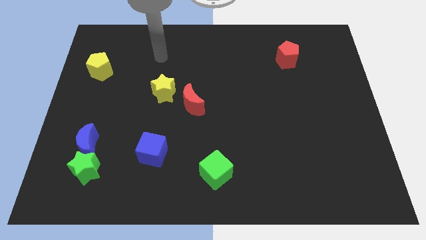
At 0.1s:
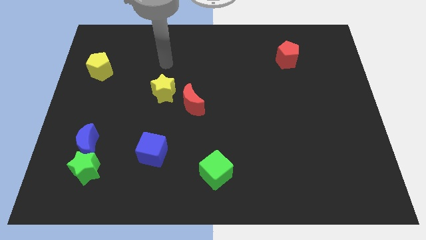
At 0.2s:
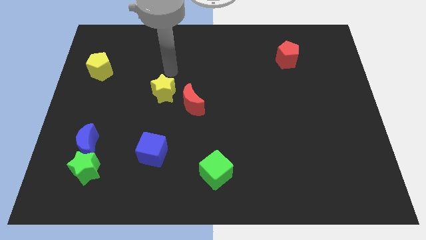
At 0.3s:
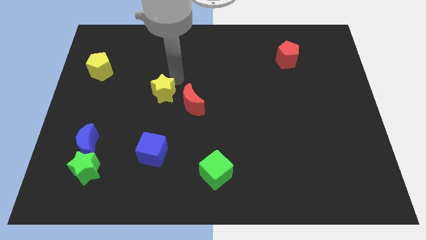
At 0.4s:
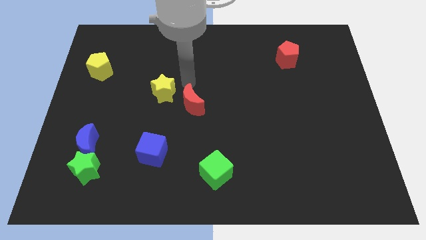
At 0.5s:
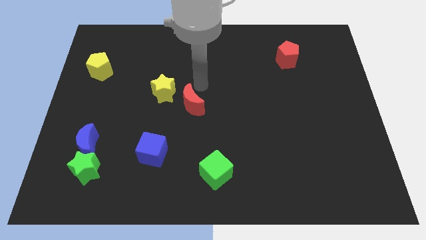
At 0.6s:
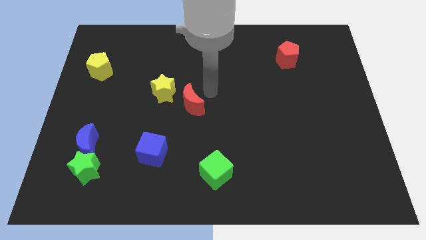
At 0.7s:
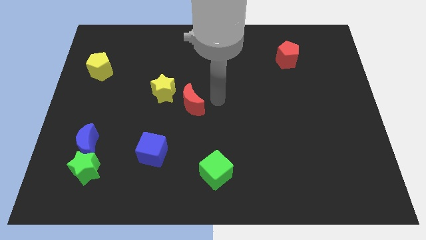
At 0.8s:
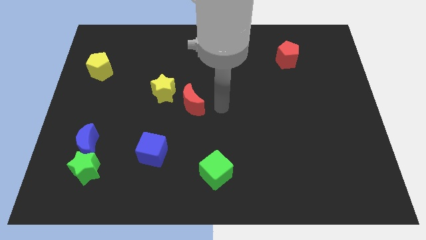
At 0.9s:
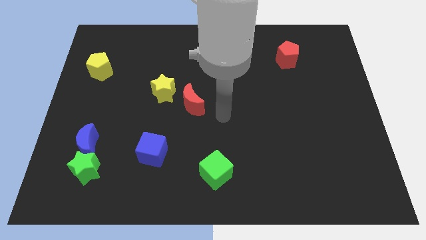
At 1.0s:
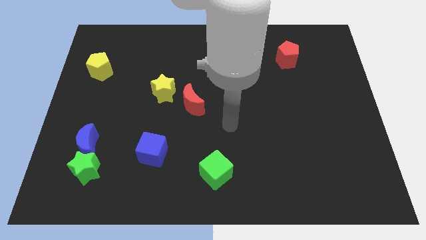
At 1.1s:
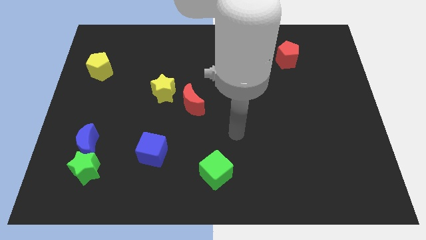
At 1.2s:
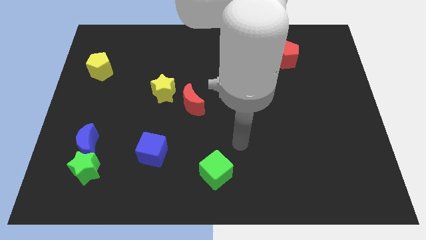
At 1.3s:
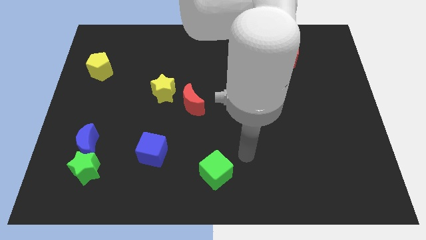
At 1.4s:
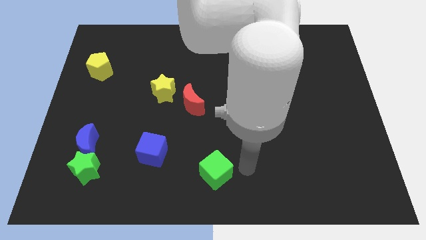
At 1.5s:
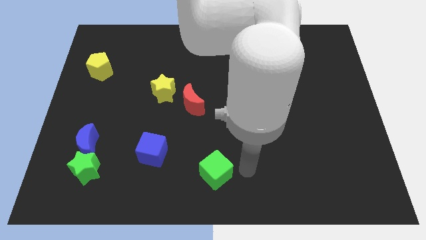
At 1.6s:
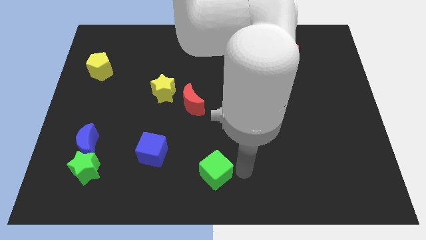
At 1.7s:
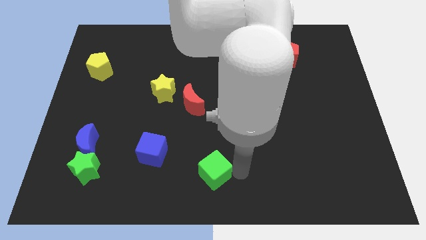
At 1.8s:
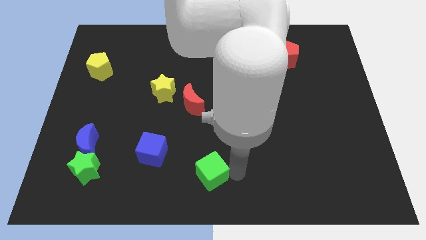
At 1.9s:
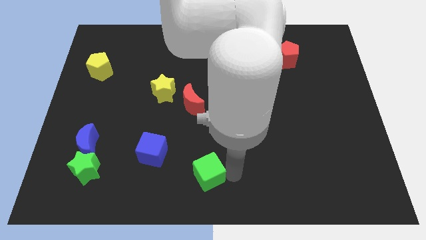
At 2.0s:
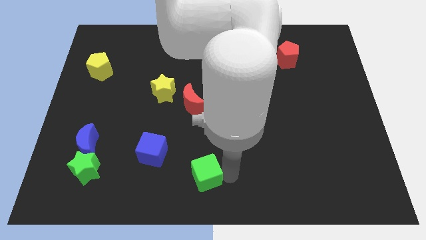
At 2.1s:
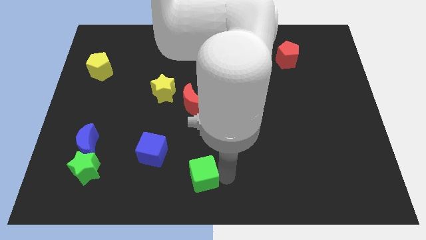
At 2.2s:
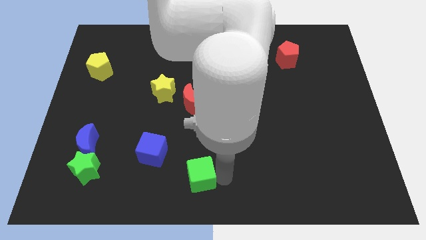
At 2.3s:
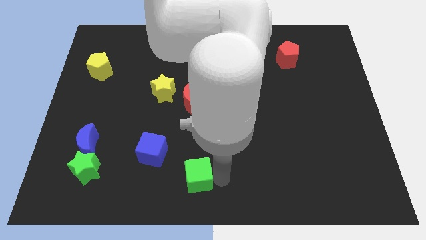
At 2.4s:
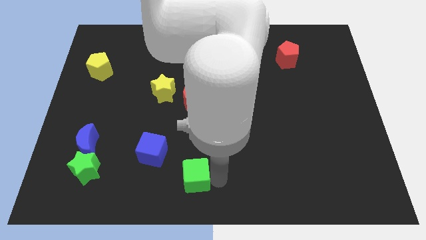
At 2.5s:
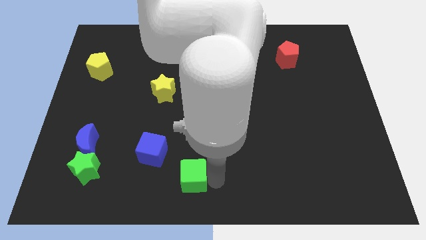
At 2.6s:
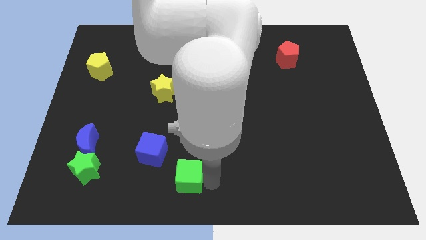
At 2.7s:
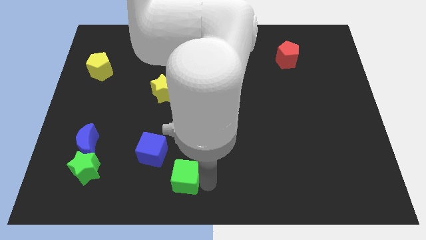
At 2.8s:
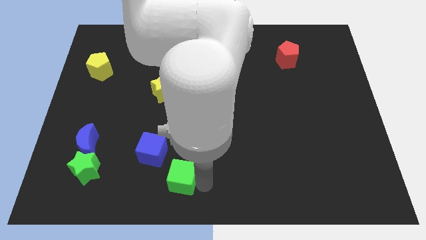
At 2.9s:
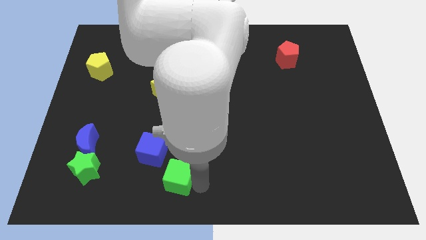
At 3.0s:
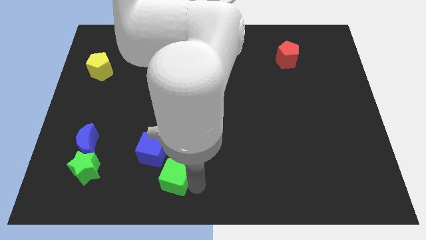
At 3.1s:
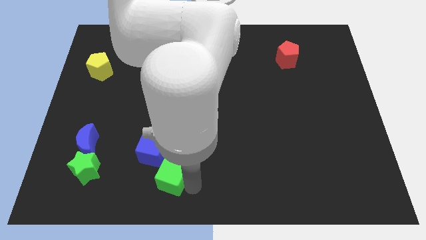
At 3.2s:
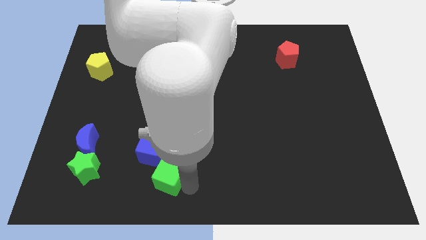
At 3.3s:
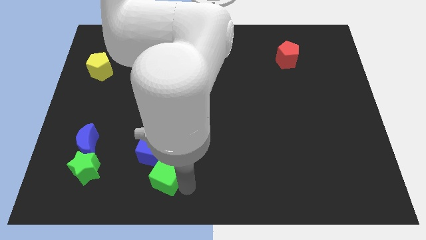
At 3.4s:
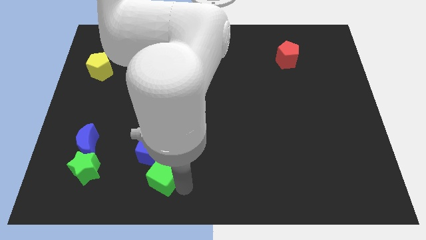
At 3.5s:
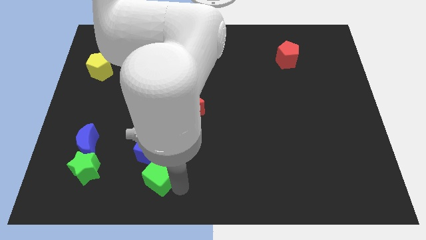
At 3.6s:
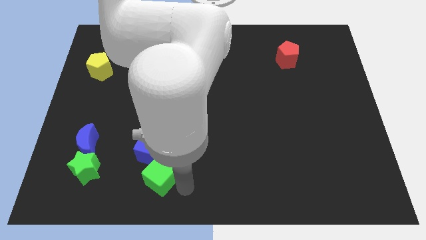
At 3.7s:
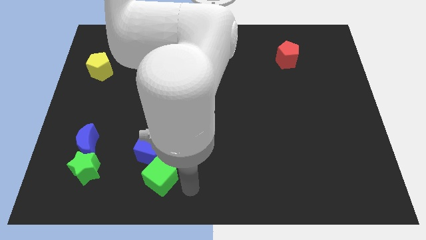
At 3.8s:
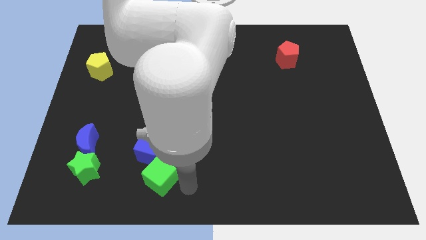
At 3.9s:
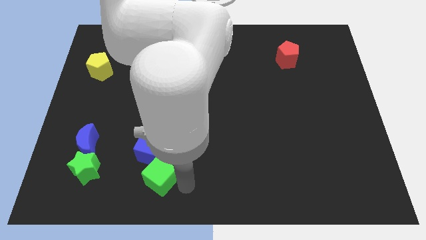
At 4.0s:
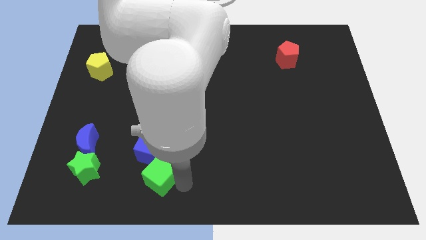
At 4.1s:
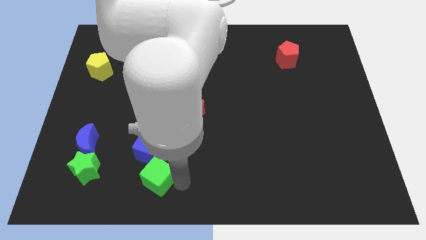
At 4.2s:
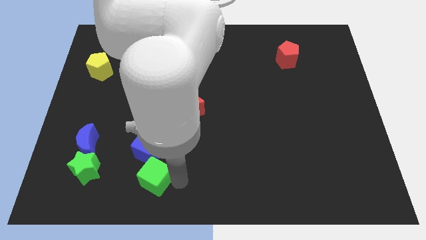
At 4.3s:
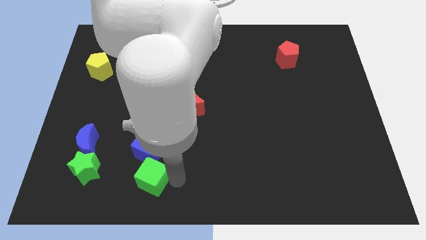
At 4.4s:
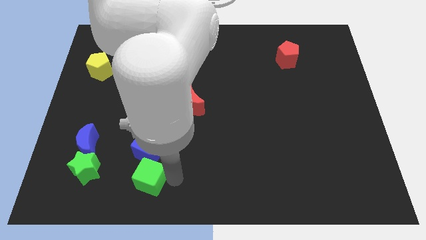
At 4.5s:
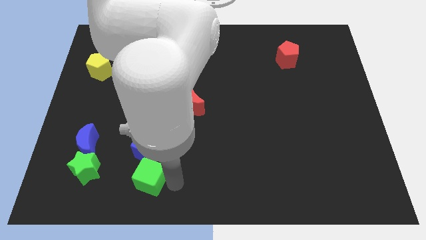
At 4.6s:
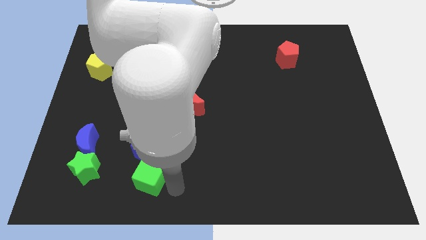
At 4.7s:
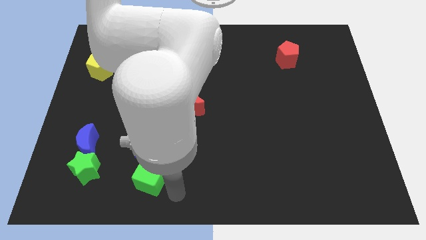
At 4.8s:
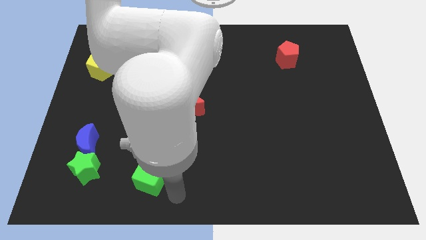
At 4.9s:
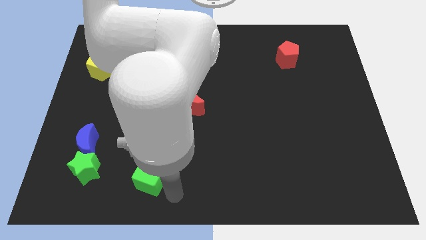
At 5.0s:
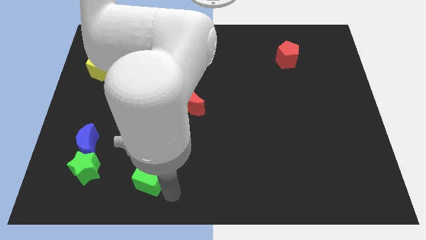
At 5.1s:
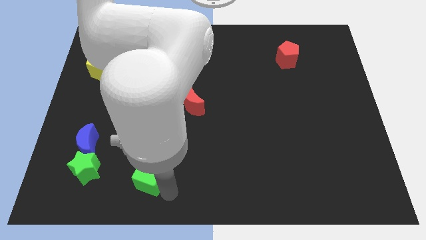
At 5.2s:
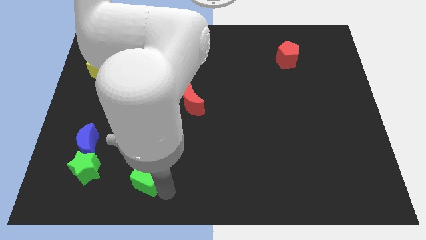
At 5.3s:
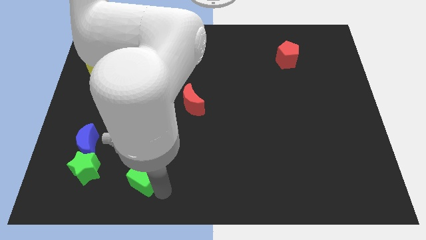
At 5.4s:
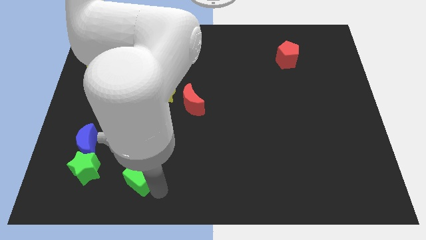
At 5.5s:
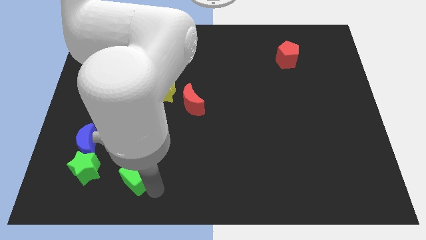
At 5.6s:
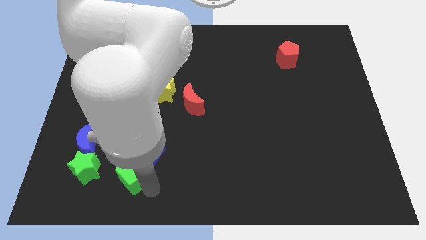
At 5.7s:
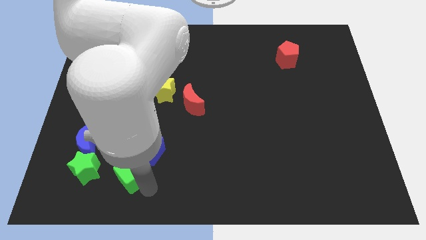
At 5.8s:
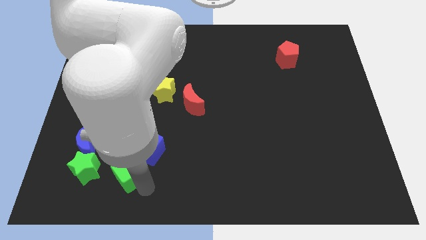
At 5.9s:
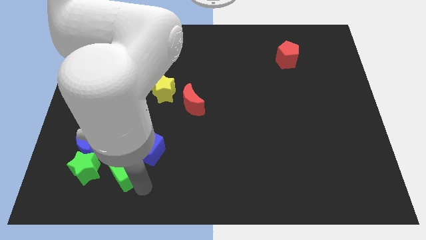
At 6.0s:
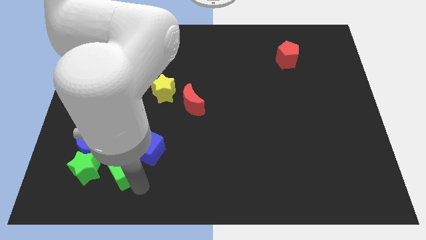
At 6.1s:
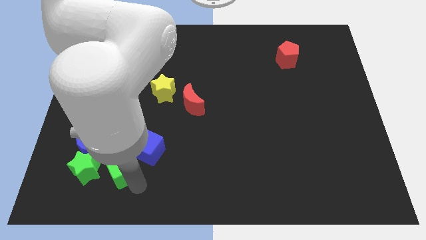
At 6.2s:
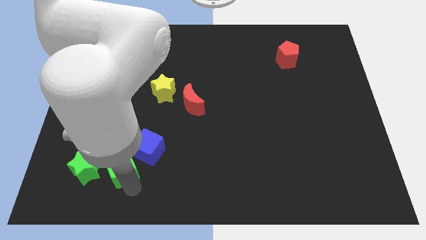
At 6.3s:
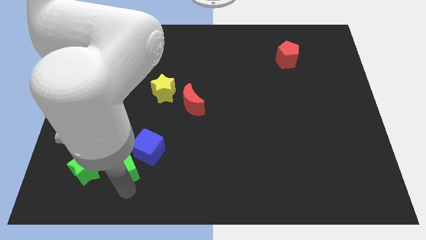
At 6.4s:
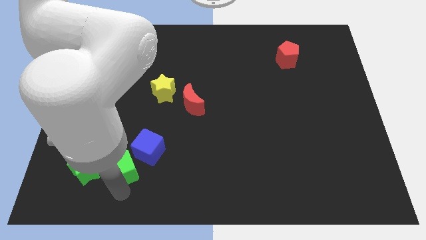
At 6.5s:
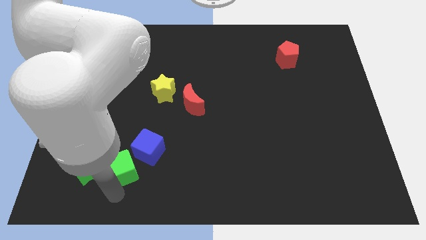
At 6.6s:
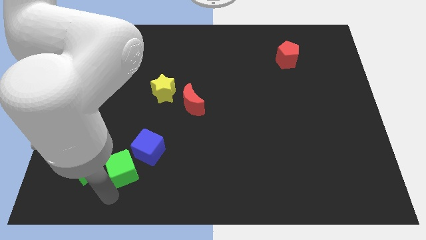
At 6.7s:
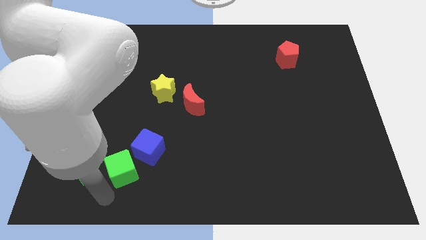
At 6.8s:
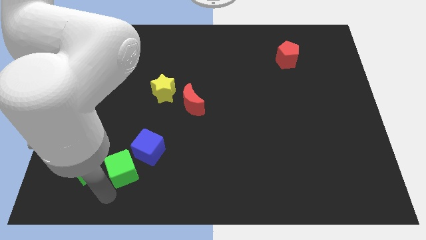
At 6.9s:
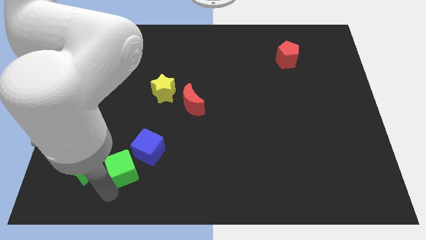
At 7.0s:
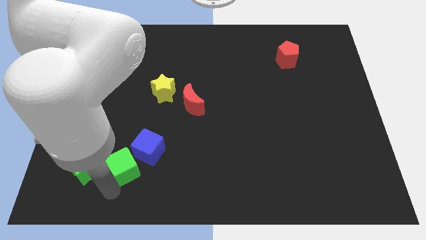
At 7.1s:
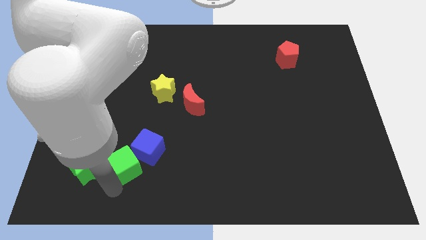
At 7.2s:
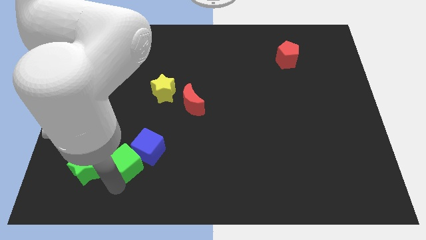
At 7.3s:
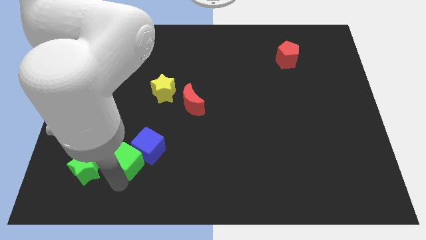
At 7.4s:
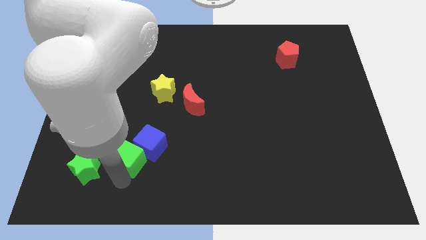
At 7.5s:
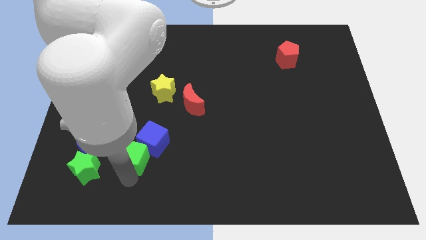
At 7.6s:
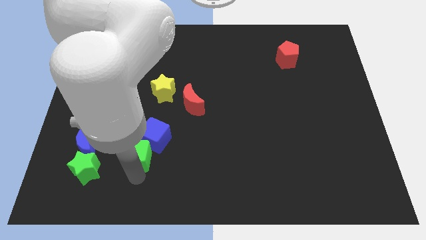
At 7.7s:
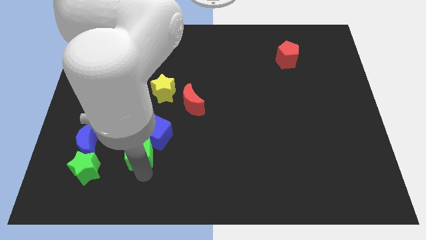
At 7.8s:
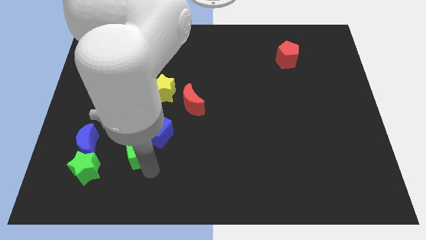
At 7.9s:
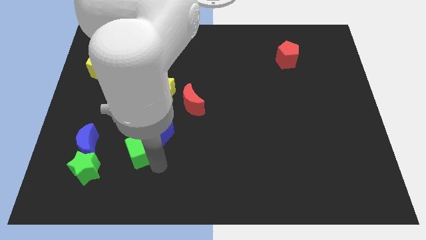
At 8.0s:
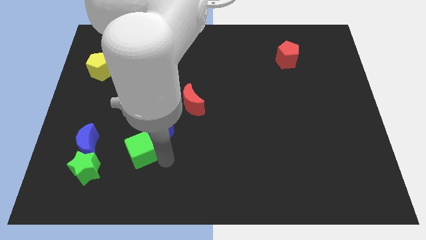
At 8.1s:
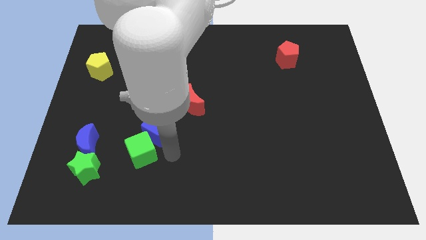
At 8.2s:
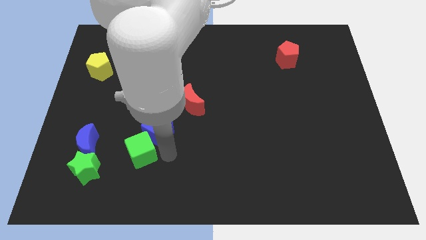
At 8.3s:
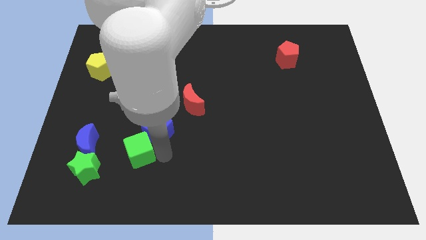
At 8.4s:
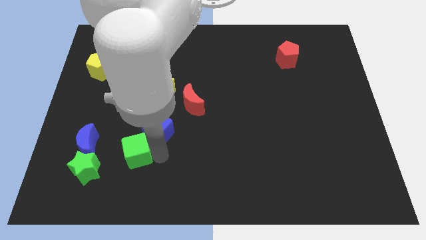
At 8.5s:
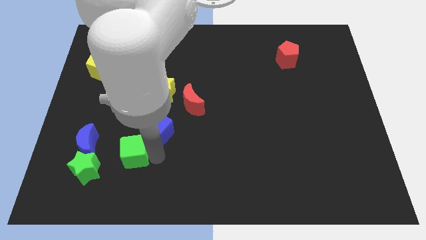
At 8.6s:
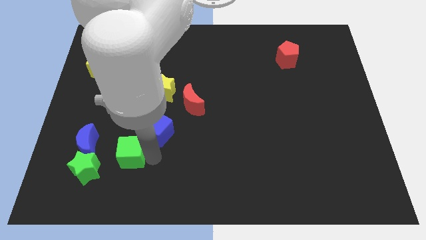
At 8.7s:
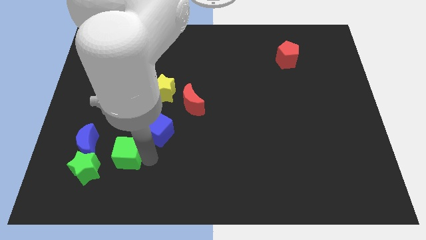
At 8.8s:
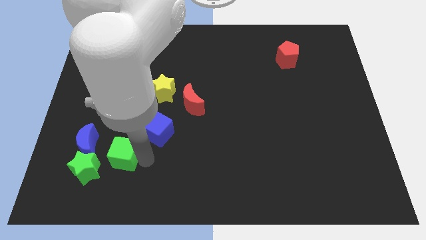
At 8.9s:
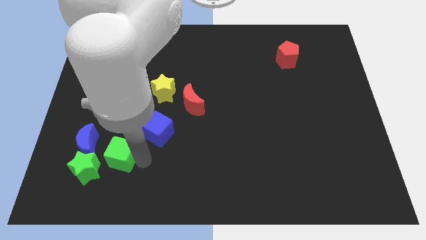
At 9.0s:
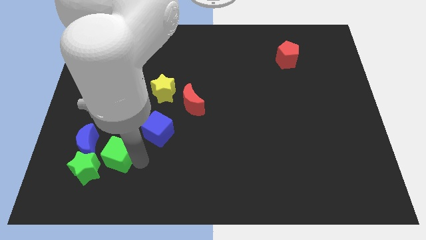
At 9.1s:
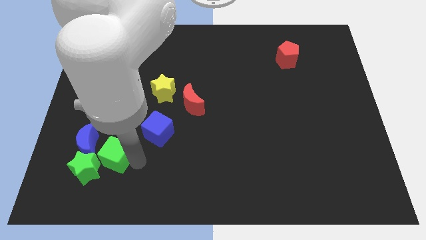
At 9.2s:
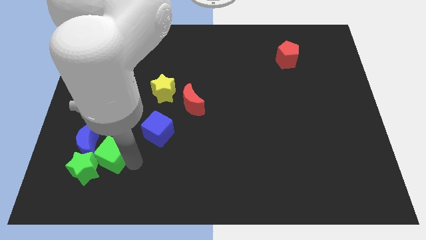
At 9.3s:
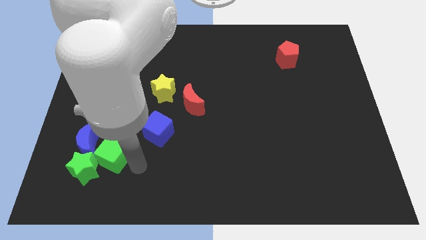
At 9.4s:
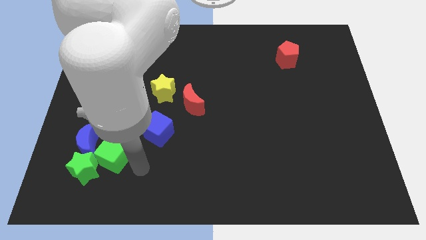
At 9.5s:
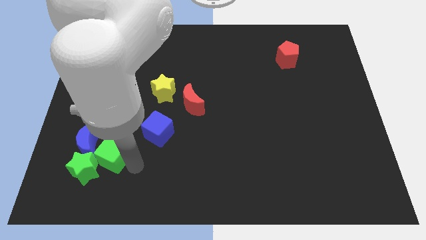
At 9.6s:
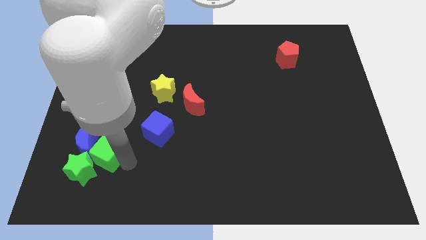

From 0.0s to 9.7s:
slide the green cube towards the blue moon
